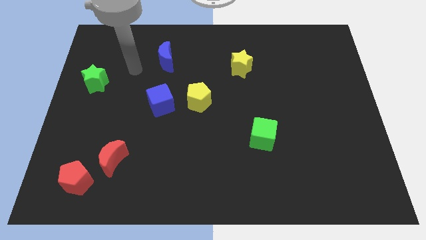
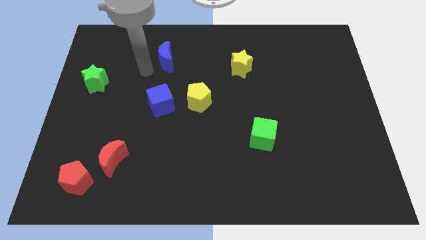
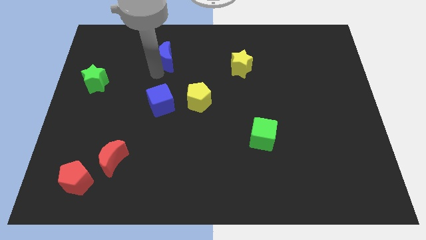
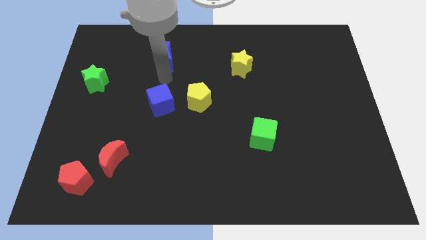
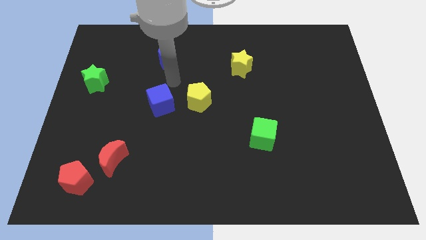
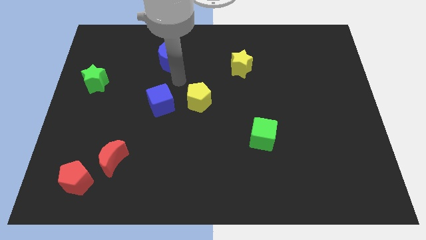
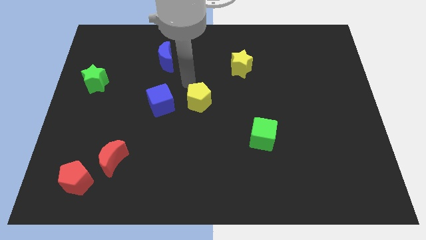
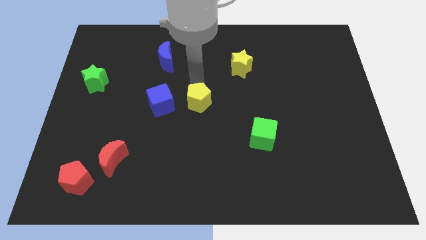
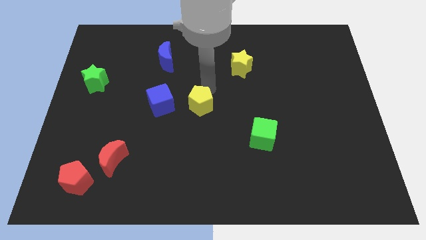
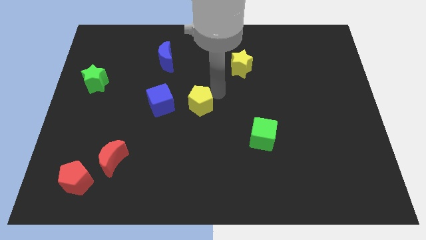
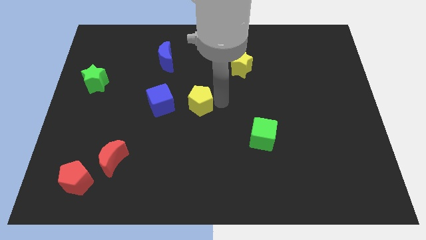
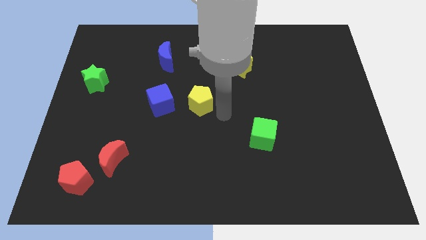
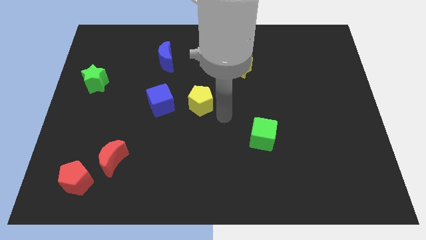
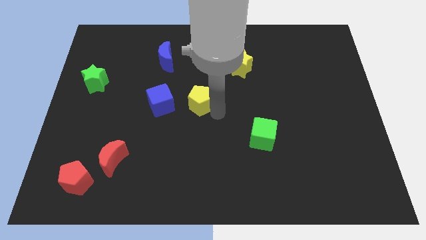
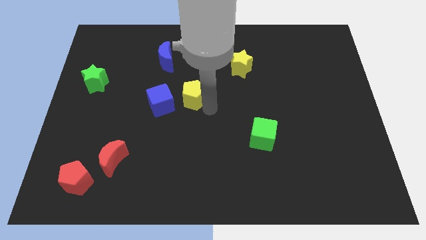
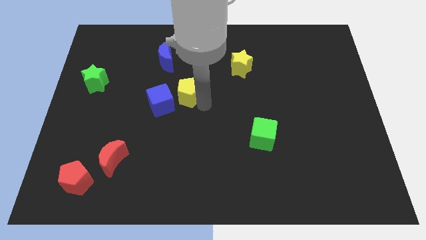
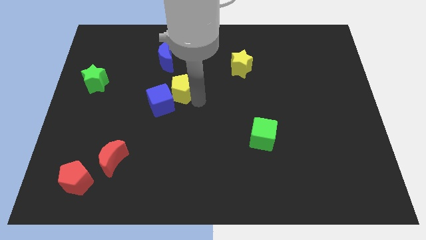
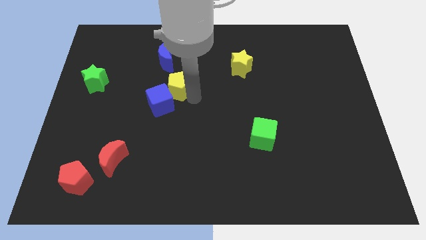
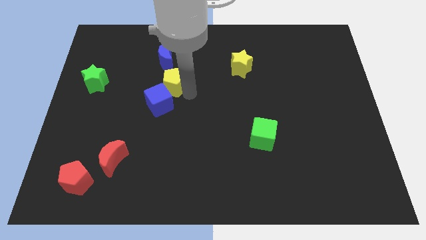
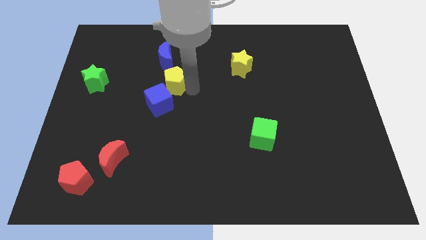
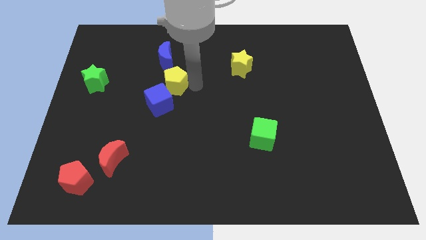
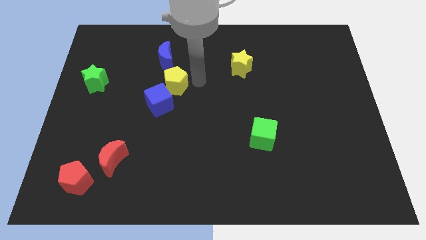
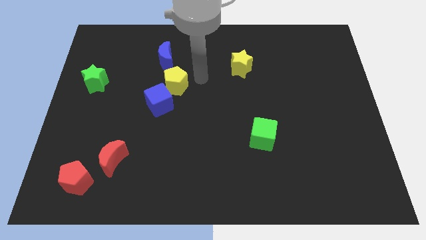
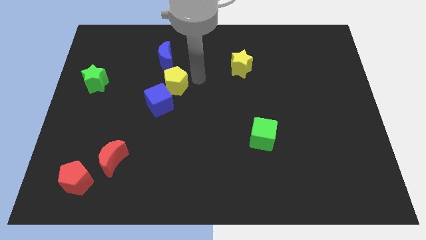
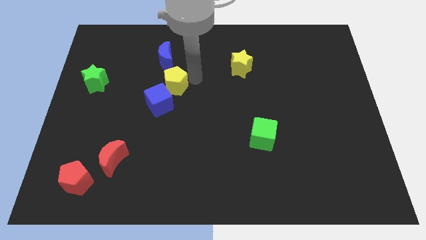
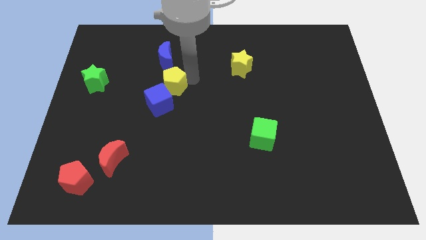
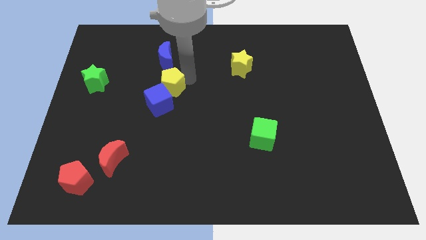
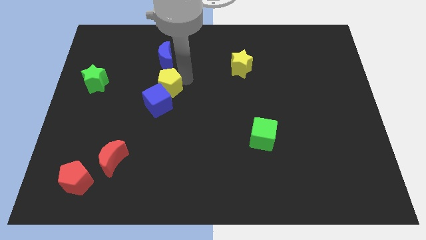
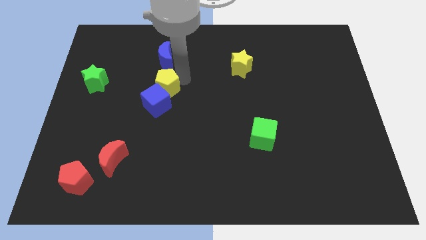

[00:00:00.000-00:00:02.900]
slide the yellow pentagon a little to the left

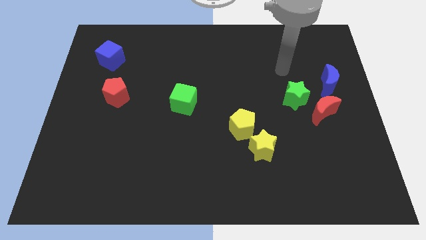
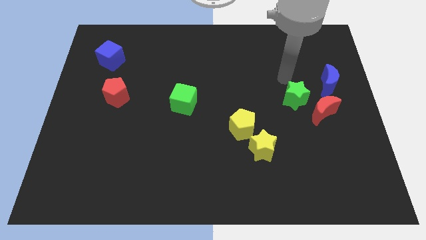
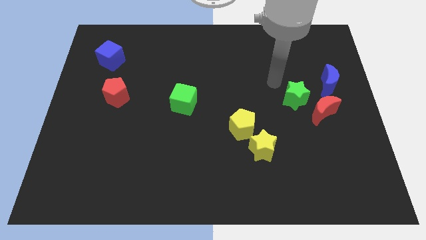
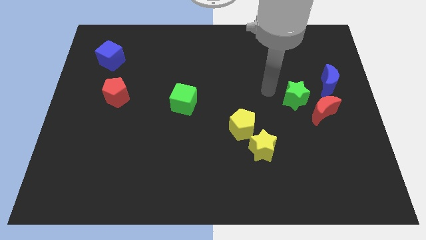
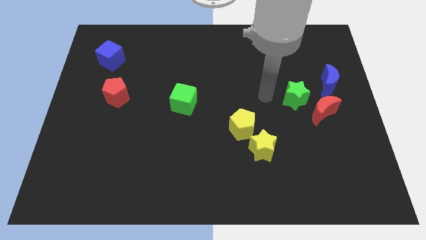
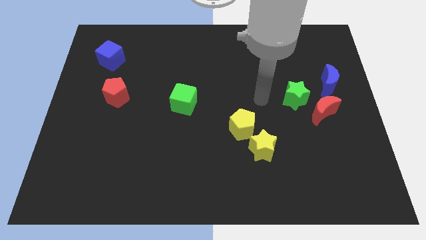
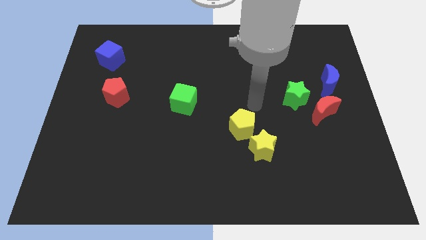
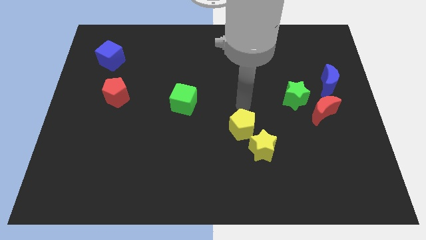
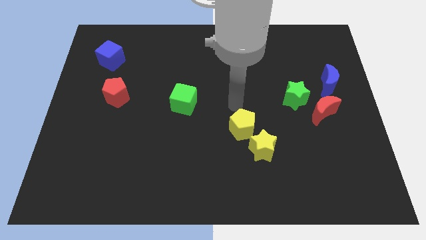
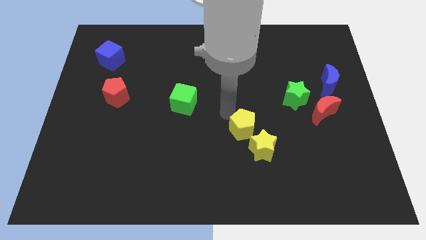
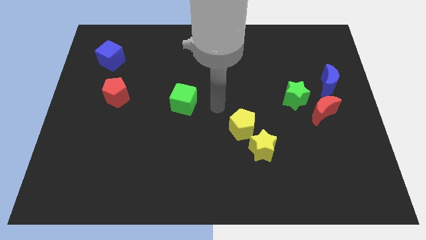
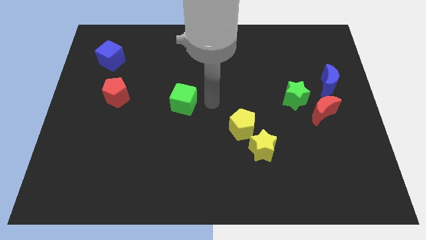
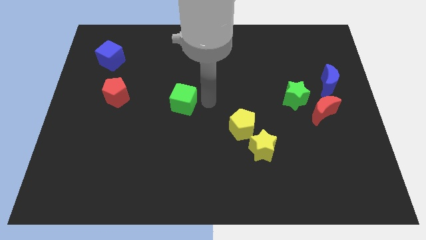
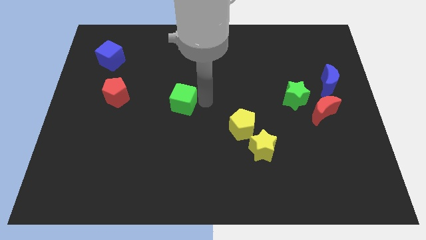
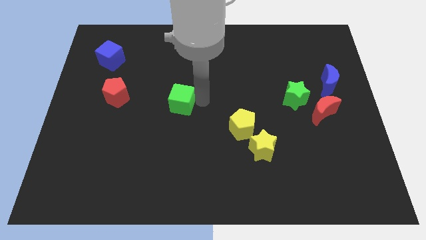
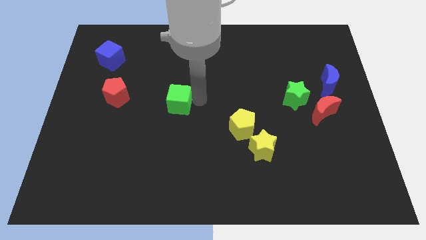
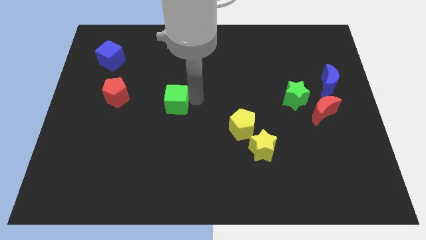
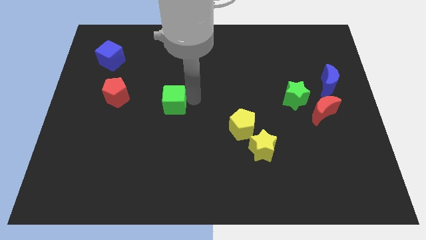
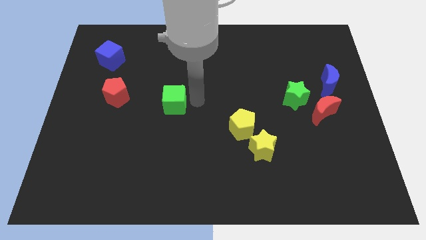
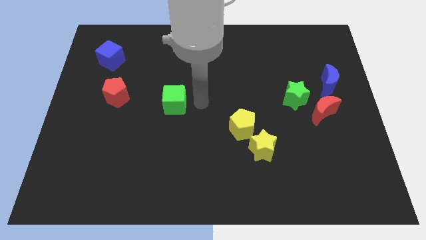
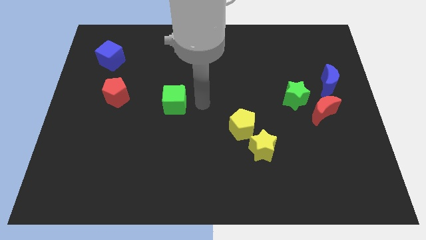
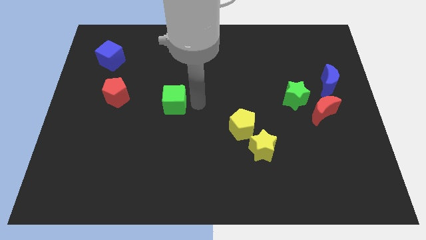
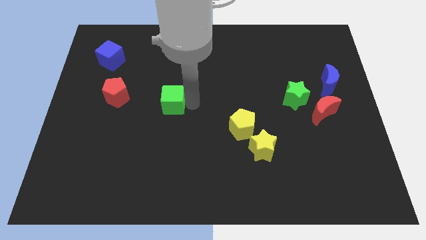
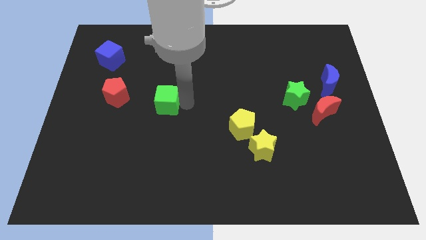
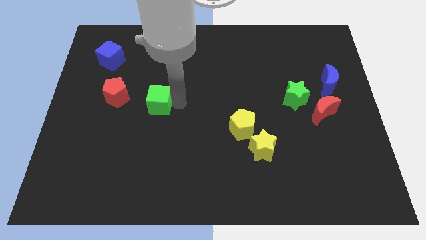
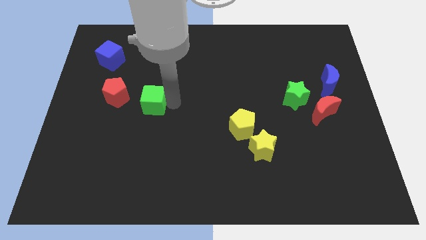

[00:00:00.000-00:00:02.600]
move the green cube somewhat left

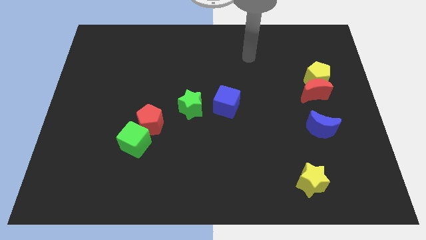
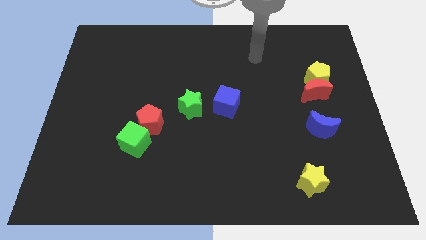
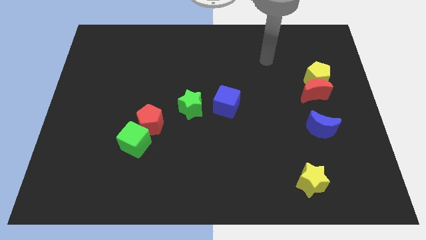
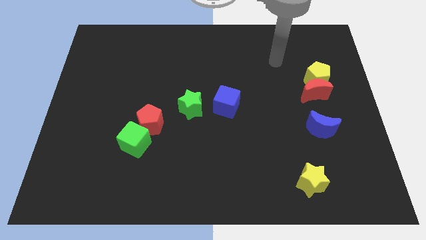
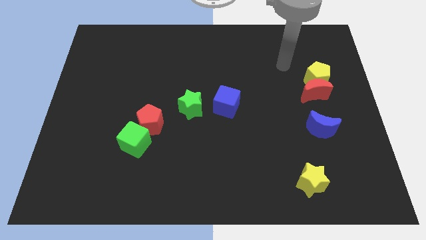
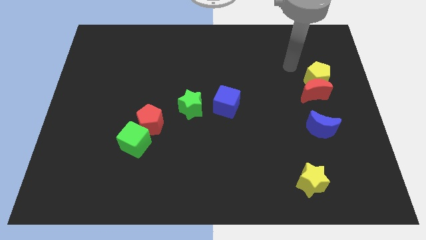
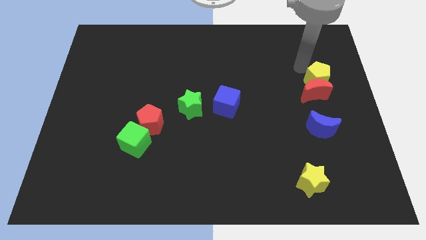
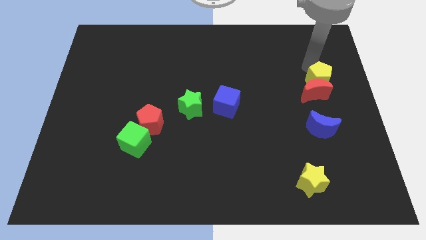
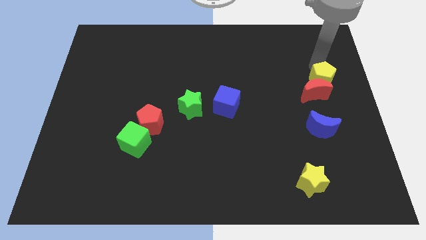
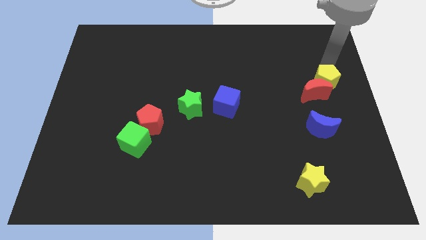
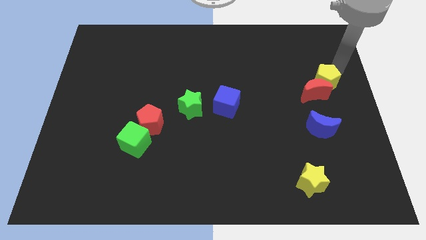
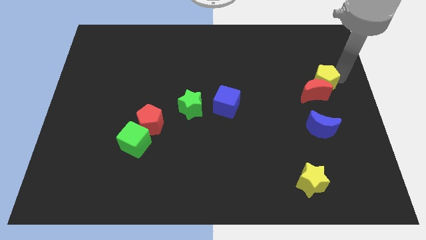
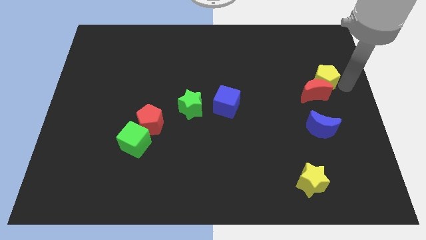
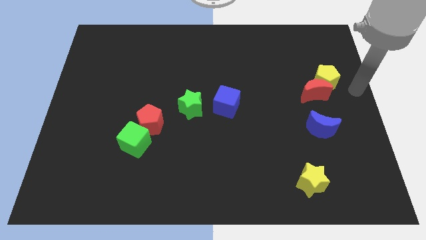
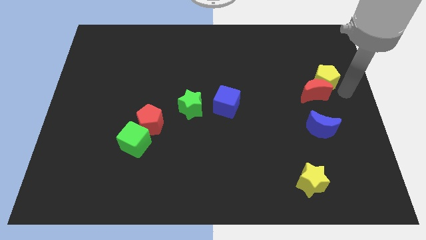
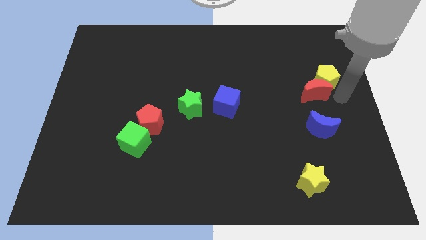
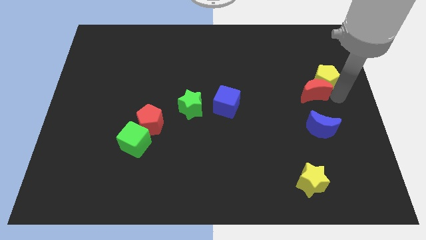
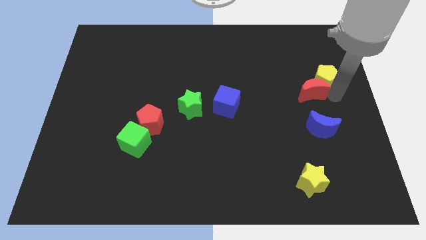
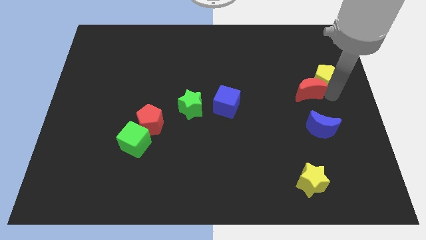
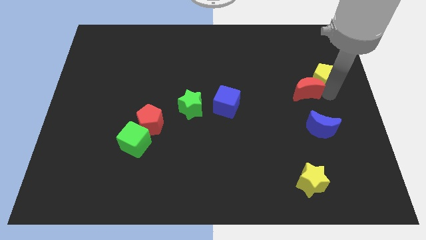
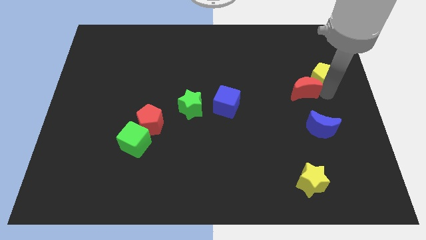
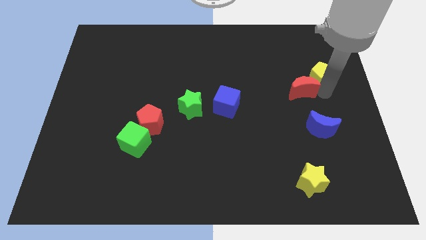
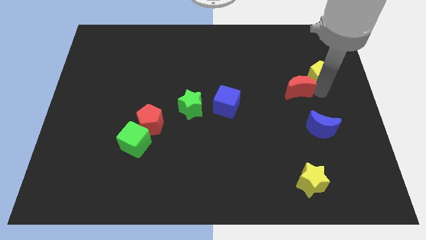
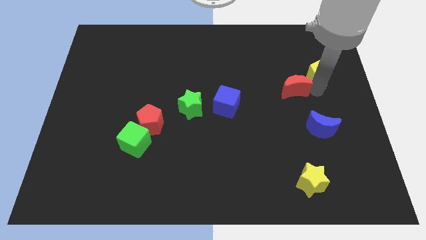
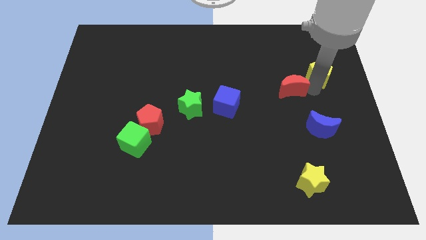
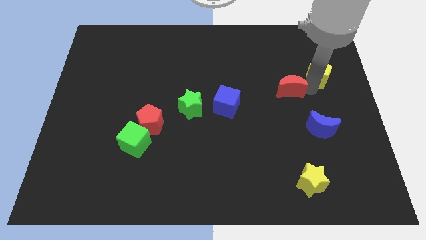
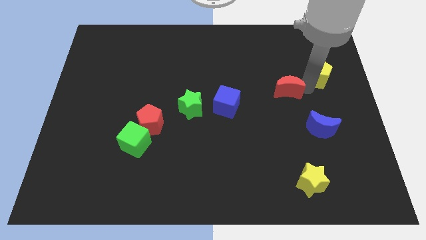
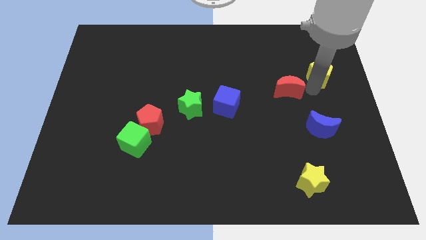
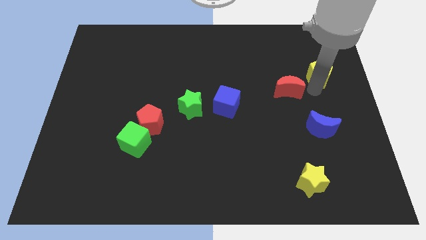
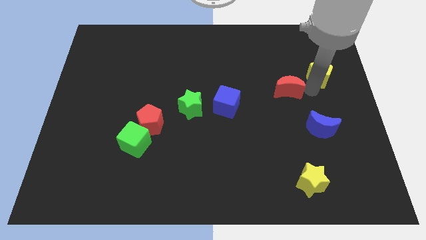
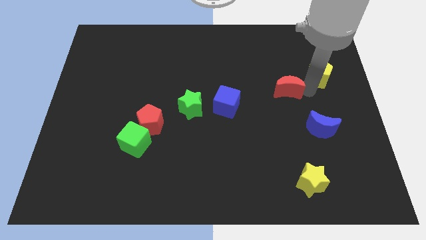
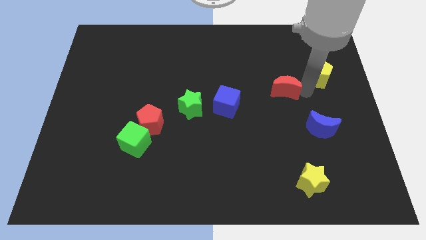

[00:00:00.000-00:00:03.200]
move the red moon a little bit left
